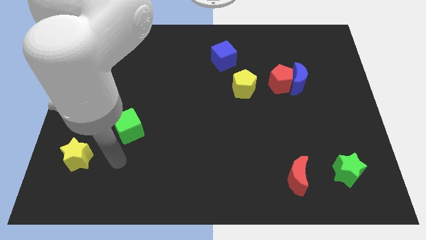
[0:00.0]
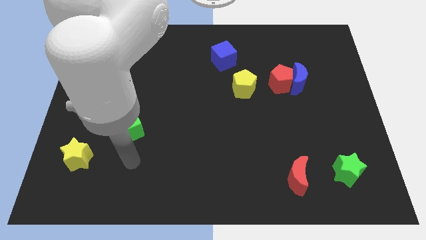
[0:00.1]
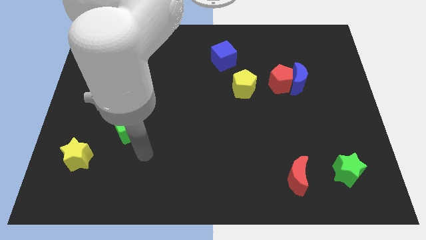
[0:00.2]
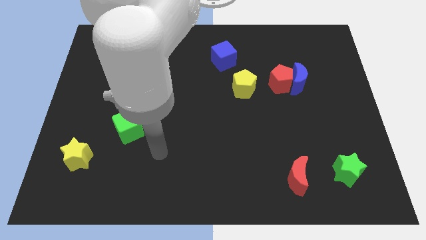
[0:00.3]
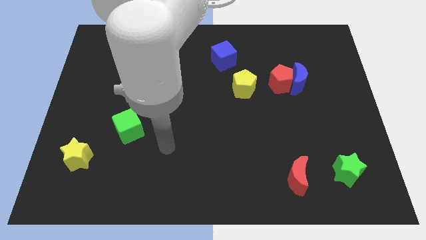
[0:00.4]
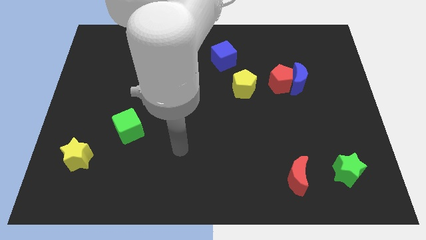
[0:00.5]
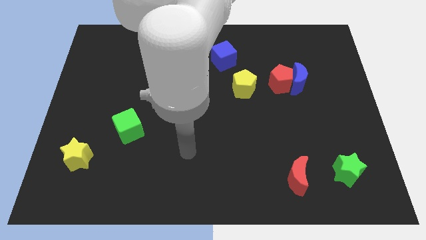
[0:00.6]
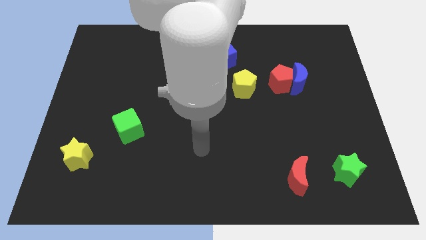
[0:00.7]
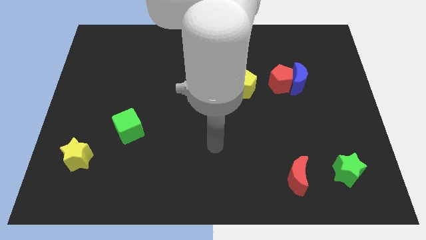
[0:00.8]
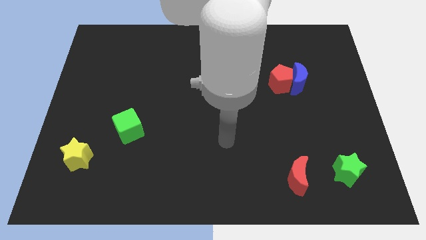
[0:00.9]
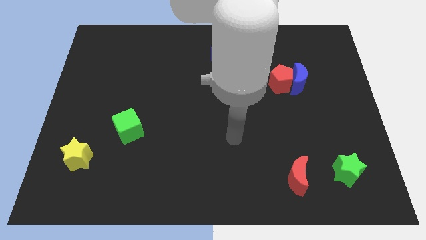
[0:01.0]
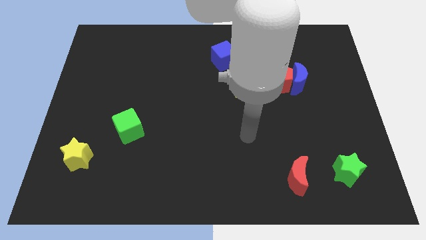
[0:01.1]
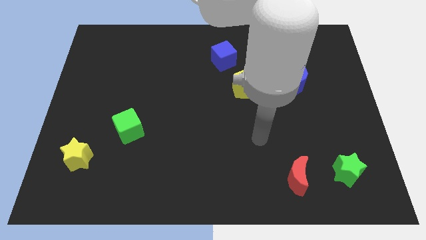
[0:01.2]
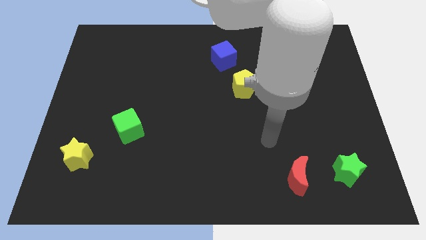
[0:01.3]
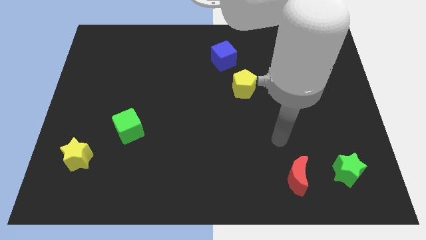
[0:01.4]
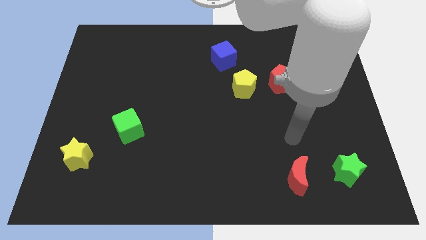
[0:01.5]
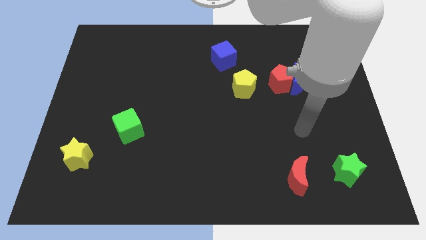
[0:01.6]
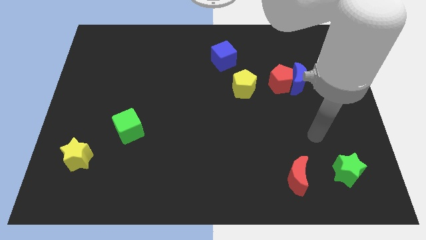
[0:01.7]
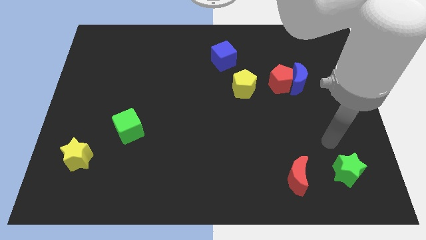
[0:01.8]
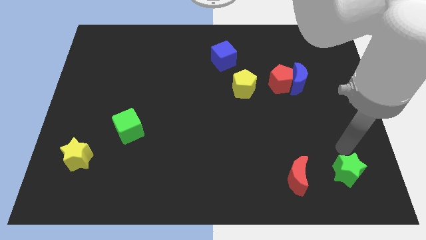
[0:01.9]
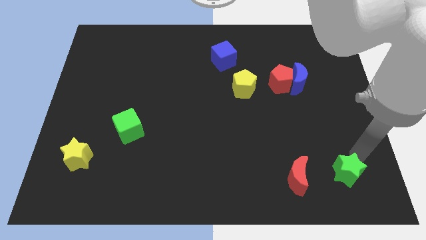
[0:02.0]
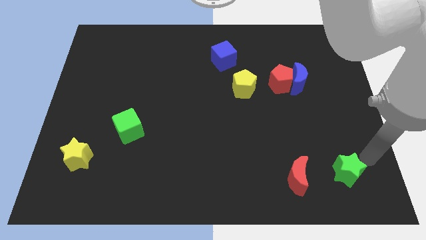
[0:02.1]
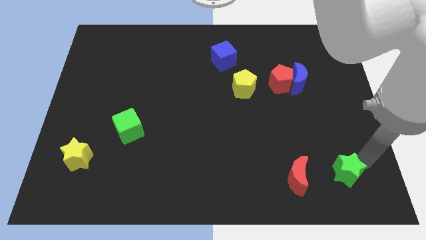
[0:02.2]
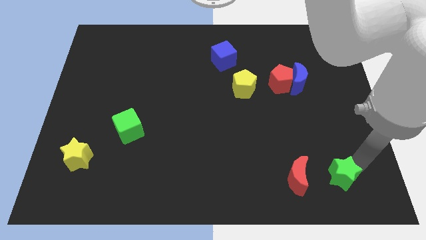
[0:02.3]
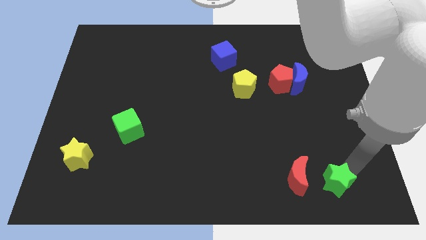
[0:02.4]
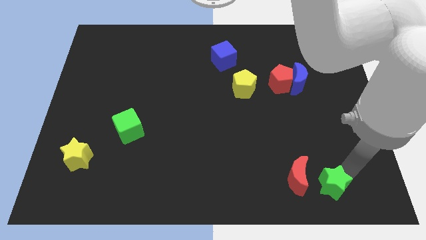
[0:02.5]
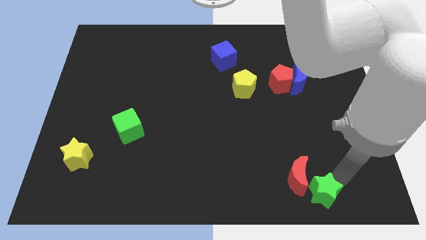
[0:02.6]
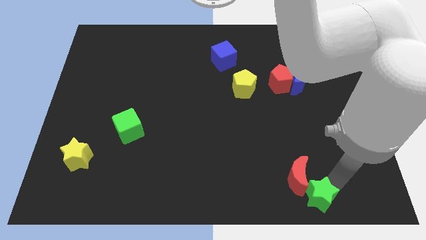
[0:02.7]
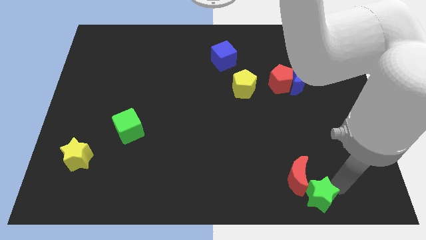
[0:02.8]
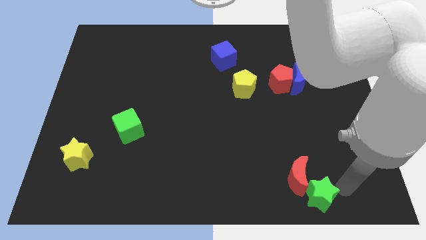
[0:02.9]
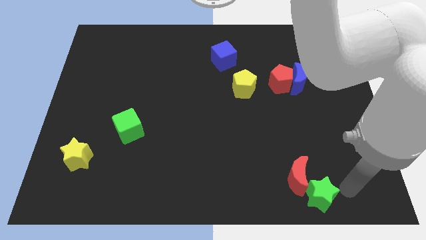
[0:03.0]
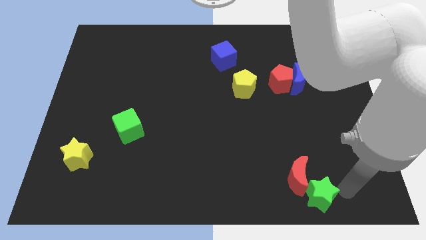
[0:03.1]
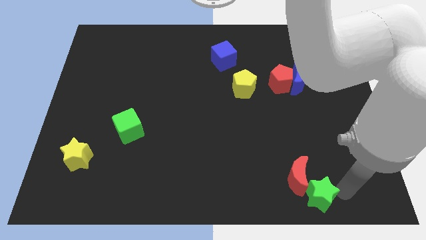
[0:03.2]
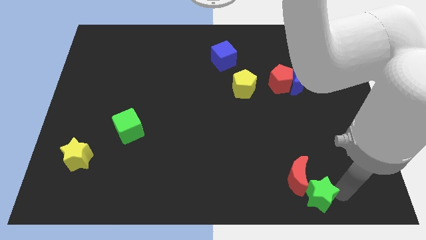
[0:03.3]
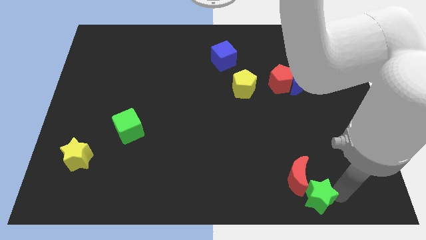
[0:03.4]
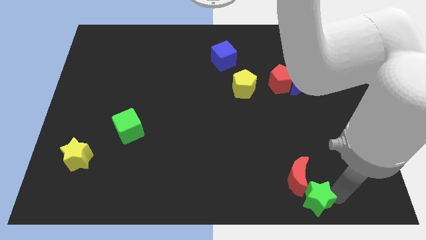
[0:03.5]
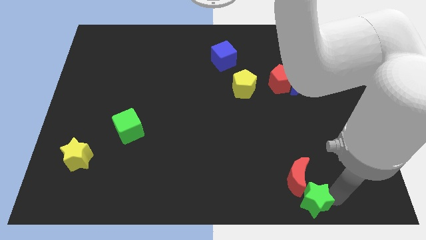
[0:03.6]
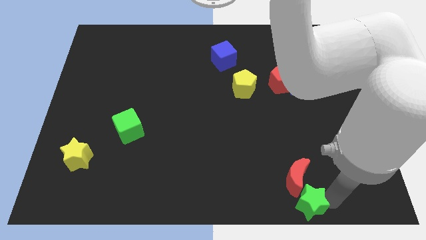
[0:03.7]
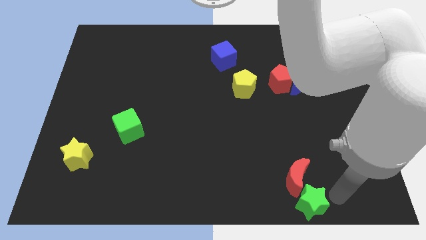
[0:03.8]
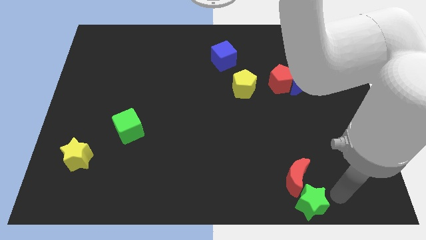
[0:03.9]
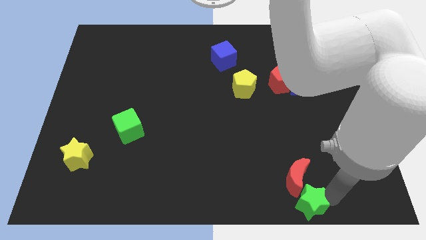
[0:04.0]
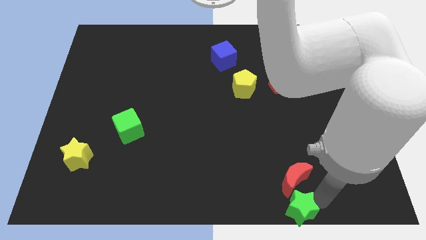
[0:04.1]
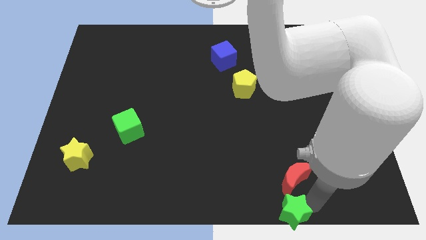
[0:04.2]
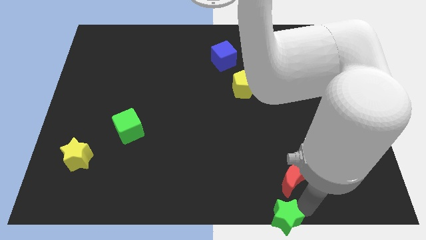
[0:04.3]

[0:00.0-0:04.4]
push the green star to the bottom

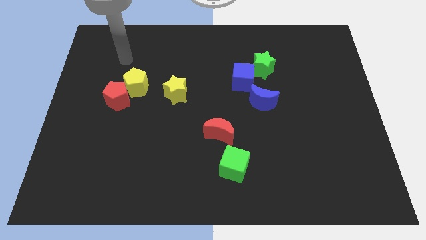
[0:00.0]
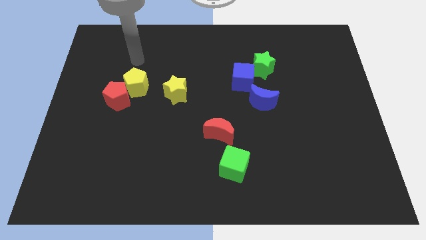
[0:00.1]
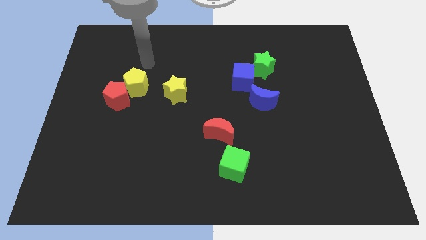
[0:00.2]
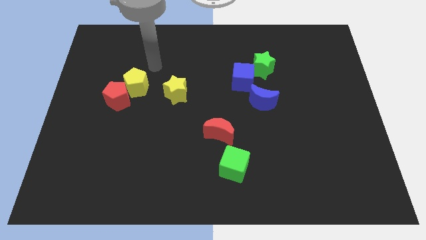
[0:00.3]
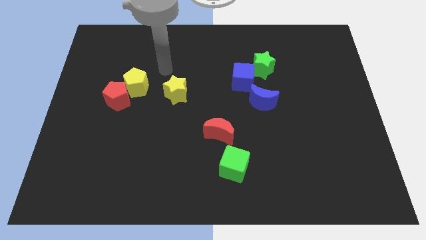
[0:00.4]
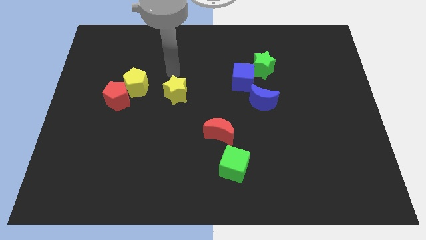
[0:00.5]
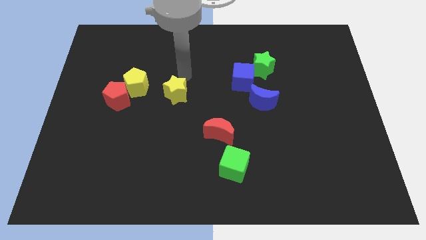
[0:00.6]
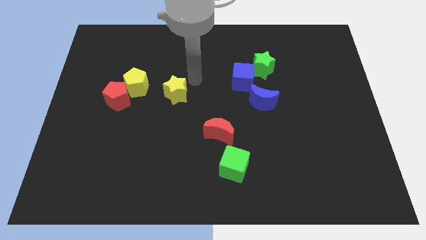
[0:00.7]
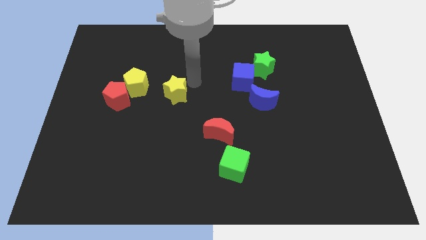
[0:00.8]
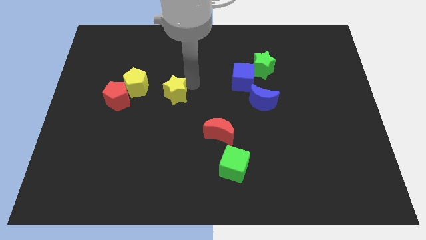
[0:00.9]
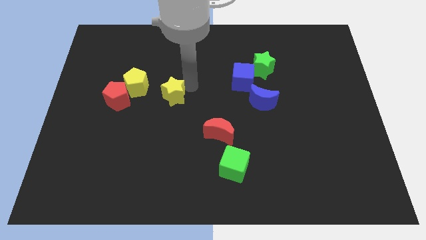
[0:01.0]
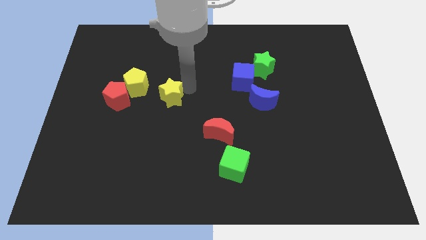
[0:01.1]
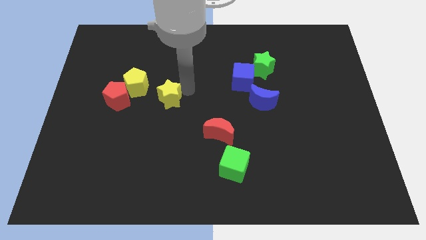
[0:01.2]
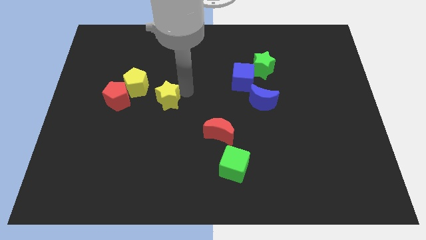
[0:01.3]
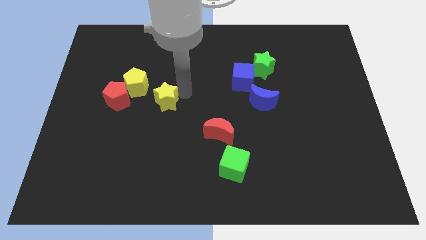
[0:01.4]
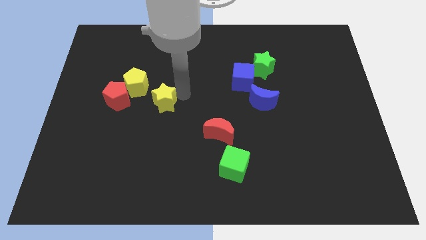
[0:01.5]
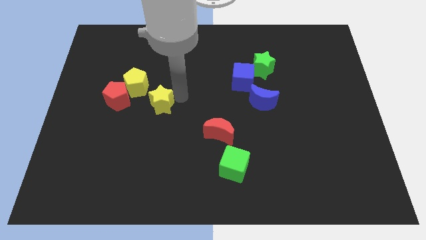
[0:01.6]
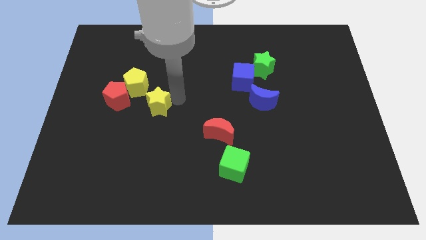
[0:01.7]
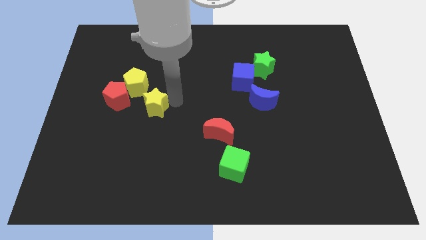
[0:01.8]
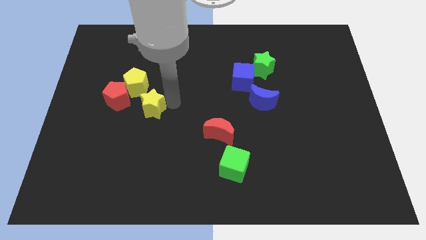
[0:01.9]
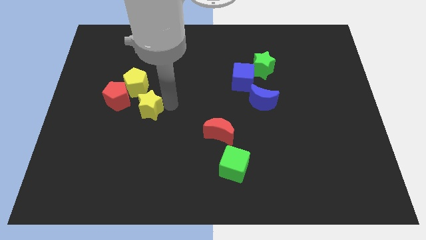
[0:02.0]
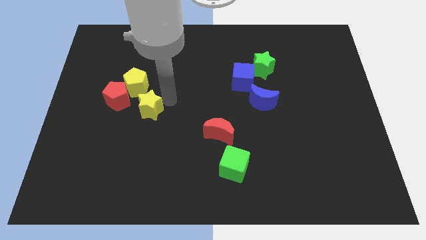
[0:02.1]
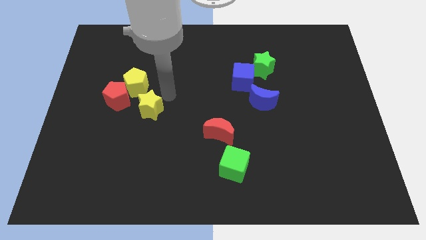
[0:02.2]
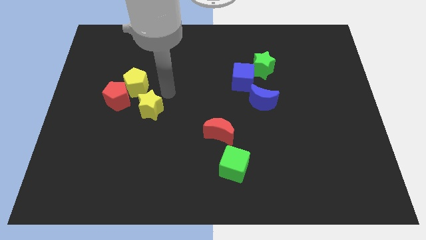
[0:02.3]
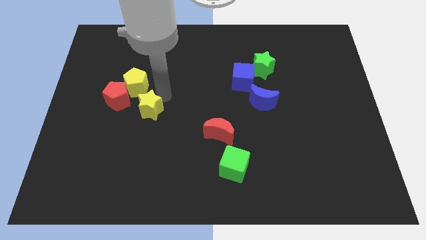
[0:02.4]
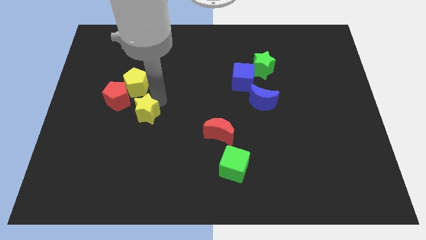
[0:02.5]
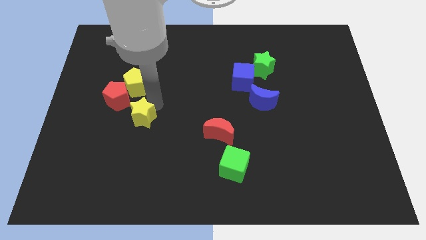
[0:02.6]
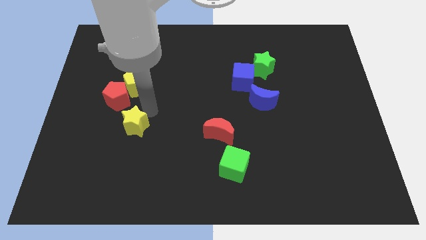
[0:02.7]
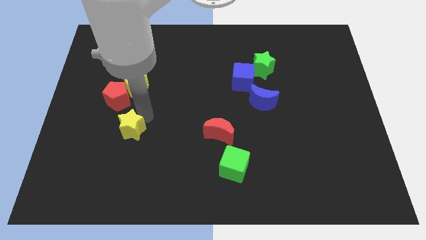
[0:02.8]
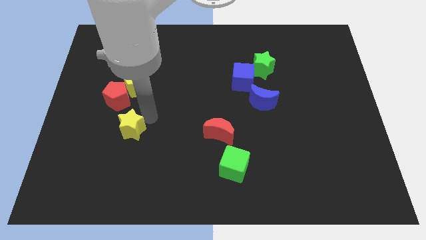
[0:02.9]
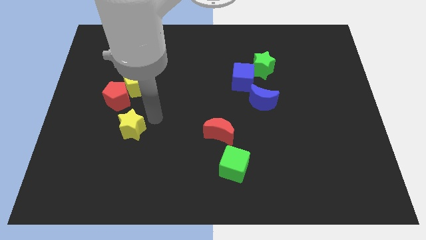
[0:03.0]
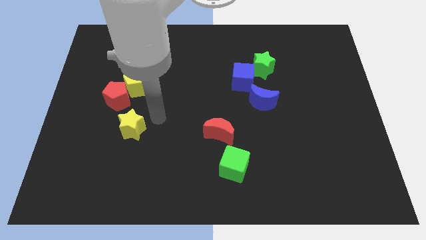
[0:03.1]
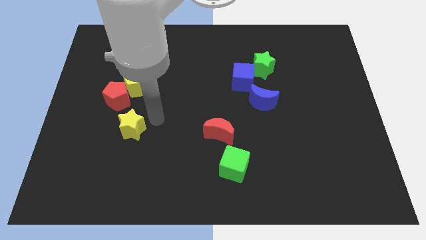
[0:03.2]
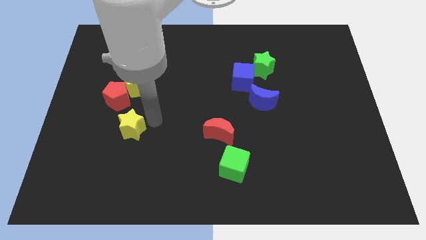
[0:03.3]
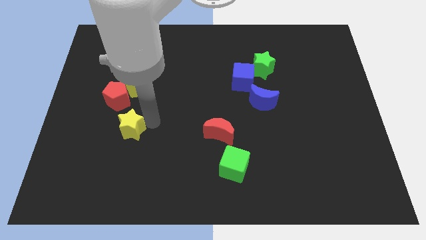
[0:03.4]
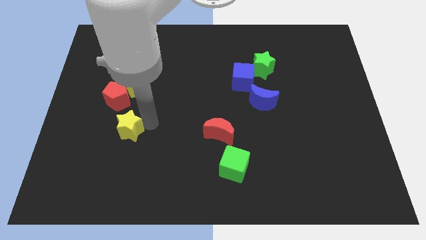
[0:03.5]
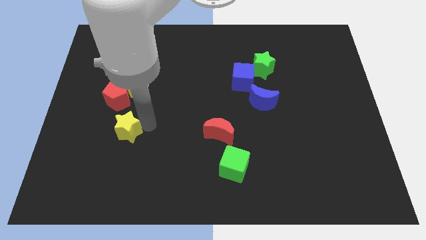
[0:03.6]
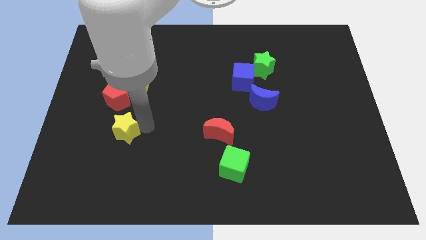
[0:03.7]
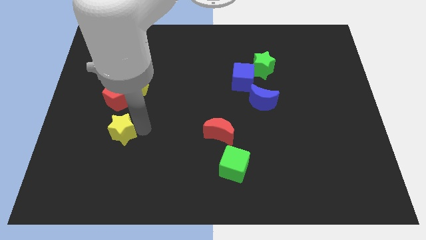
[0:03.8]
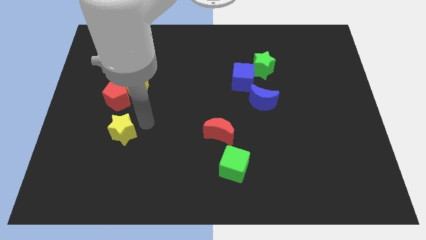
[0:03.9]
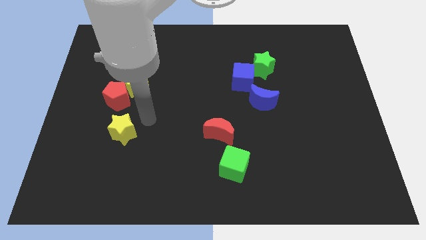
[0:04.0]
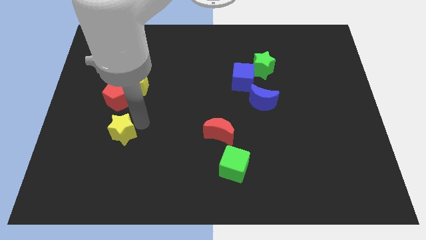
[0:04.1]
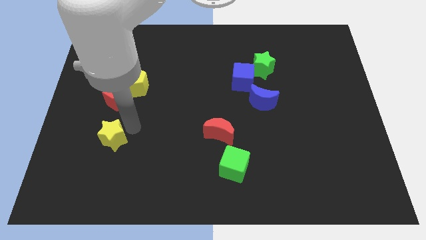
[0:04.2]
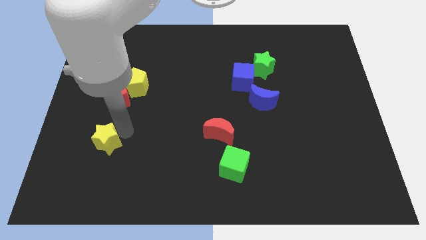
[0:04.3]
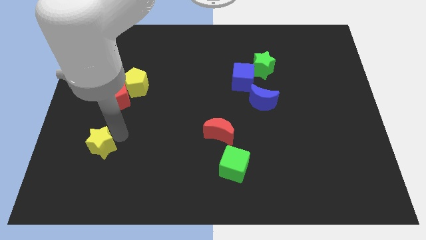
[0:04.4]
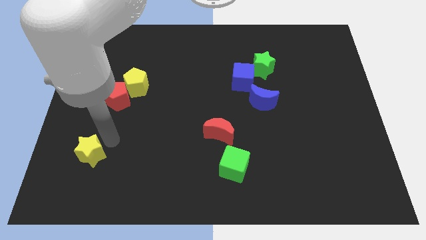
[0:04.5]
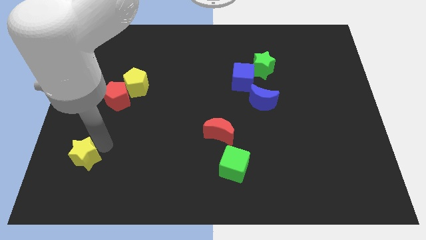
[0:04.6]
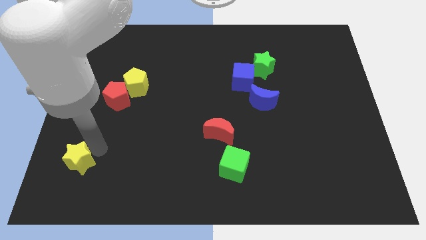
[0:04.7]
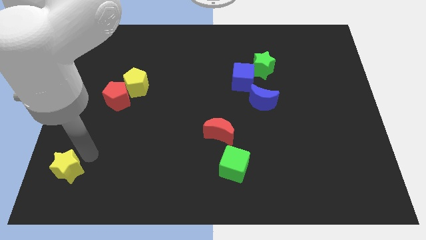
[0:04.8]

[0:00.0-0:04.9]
put the yellow star to the bottom left corner
